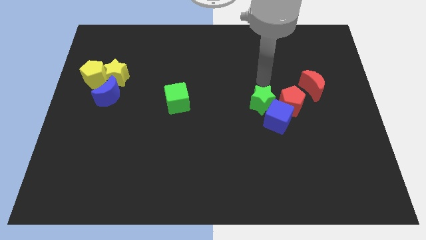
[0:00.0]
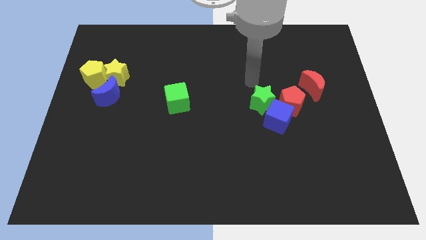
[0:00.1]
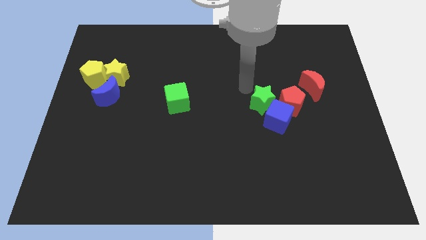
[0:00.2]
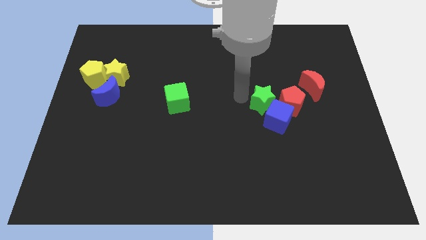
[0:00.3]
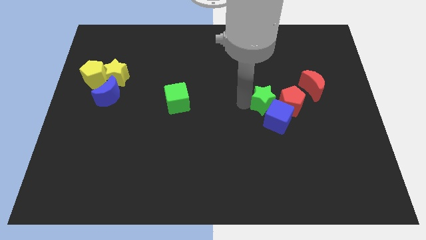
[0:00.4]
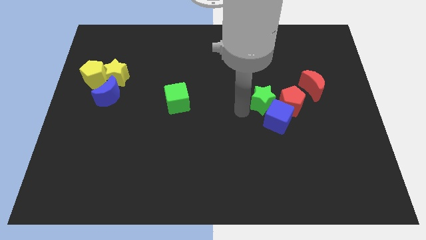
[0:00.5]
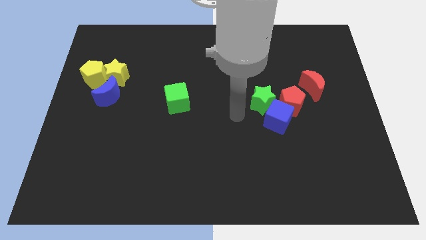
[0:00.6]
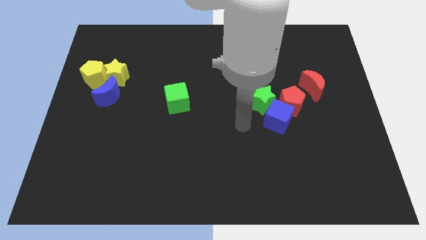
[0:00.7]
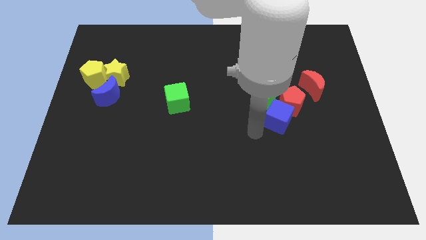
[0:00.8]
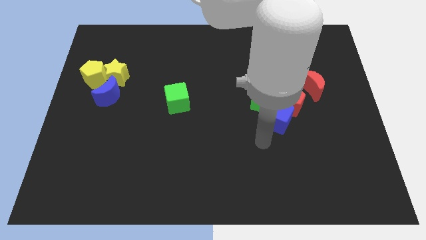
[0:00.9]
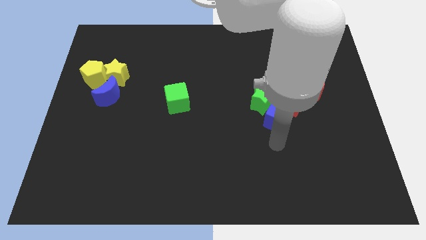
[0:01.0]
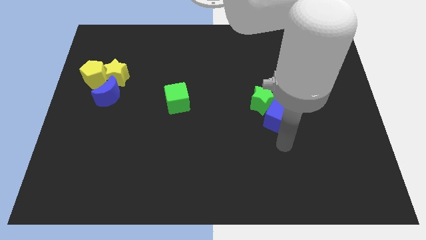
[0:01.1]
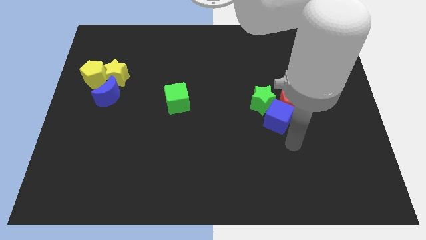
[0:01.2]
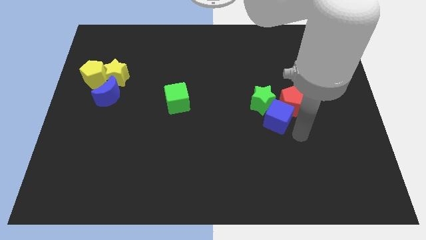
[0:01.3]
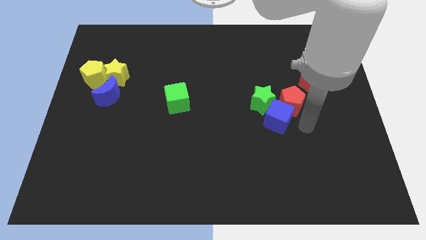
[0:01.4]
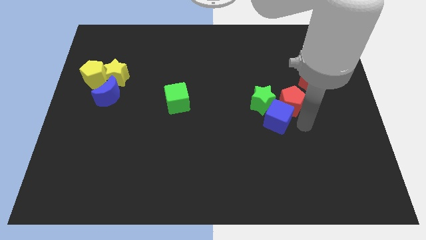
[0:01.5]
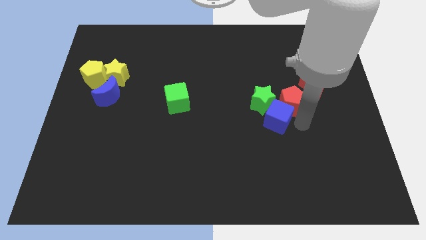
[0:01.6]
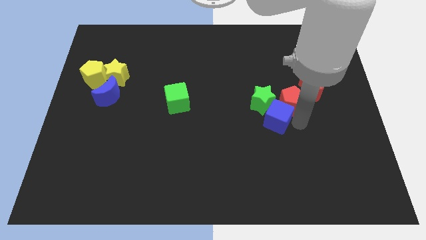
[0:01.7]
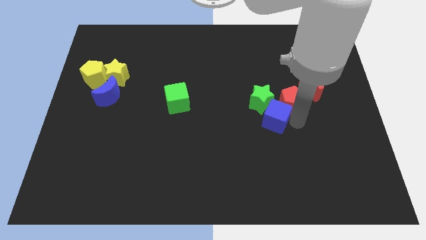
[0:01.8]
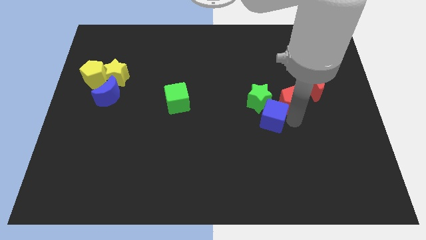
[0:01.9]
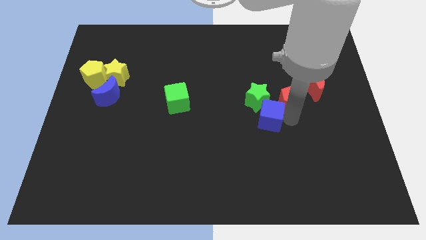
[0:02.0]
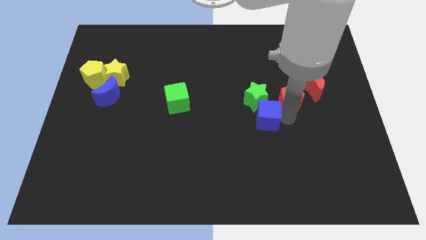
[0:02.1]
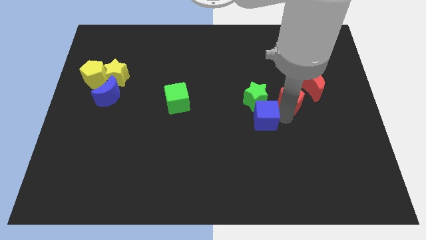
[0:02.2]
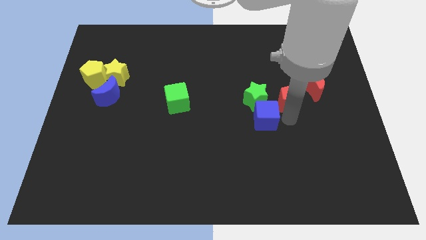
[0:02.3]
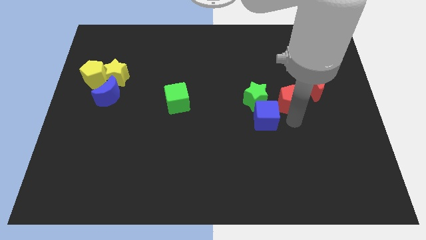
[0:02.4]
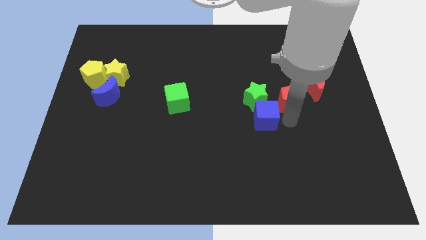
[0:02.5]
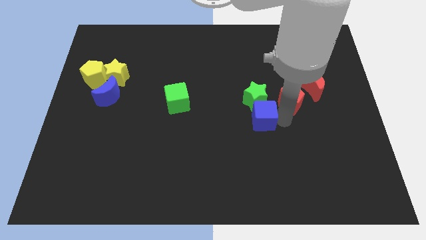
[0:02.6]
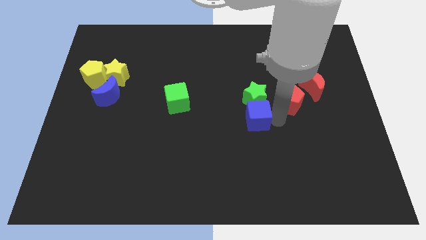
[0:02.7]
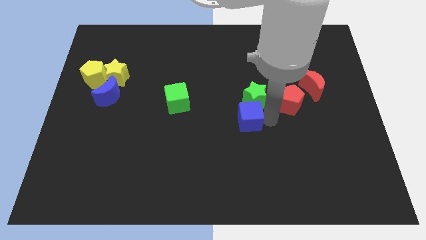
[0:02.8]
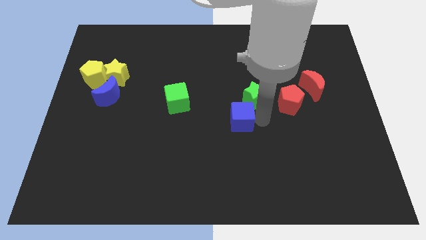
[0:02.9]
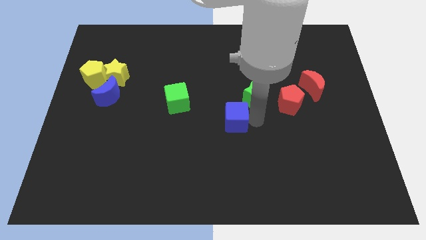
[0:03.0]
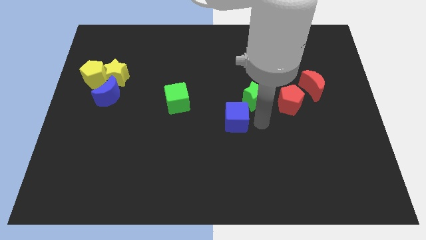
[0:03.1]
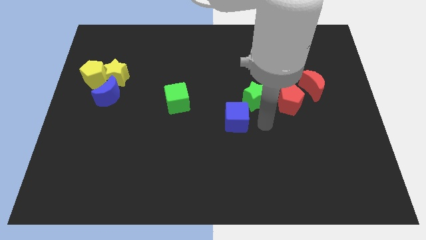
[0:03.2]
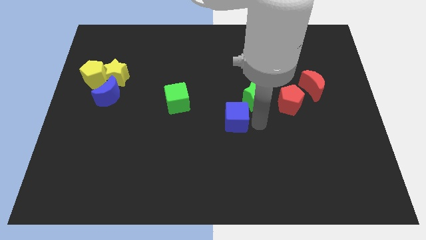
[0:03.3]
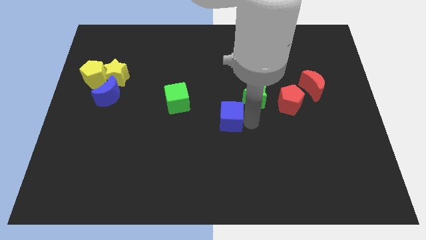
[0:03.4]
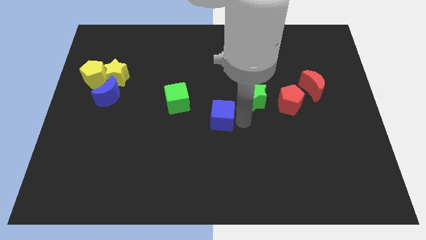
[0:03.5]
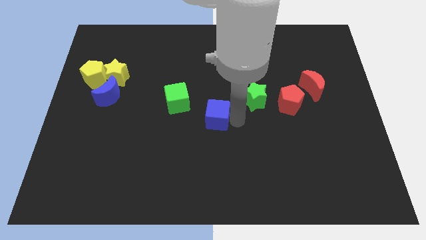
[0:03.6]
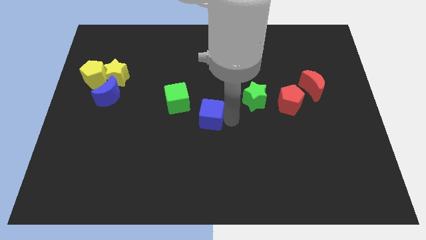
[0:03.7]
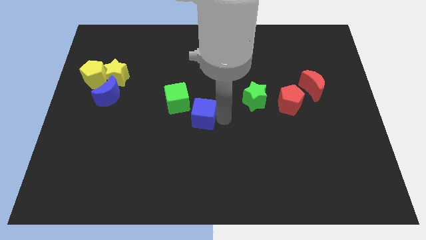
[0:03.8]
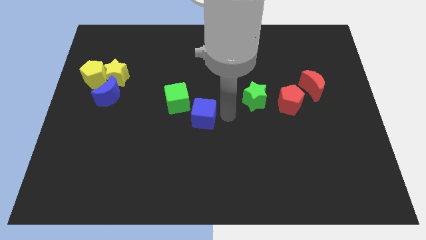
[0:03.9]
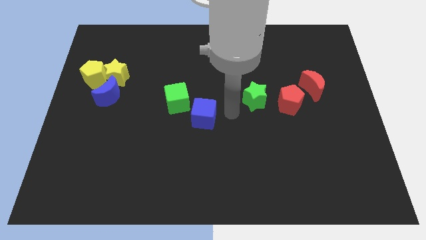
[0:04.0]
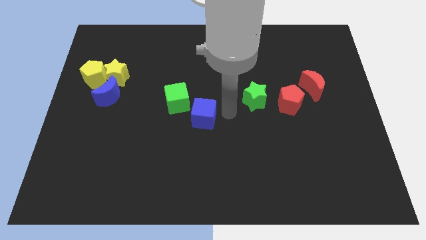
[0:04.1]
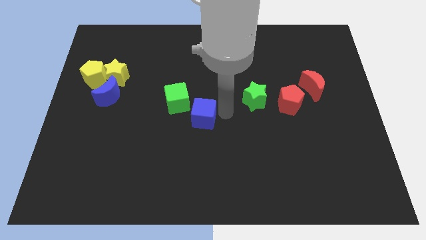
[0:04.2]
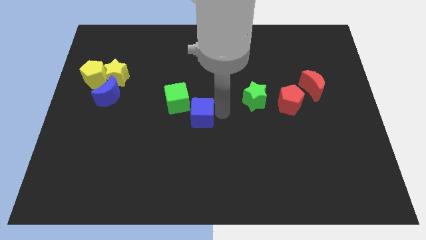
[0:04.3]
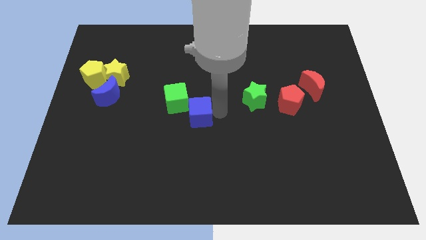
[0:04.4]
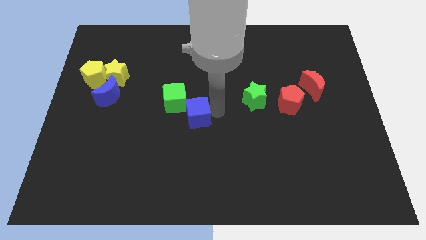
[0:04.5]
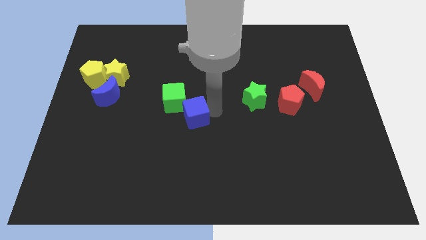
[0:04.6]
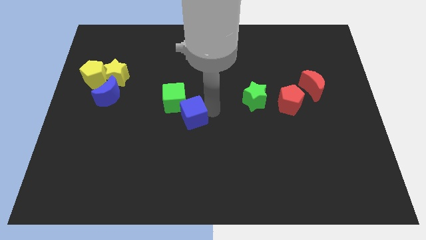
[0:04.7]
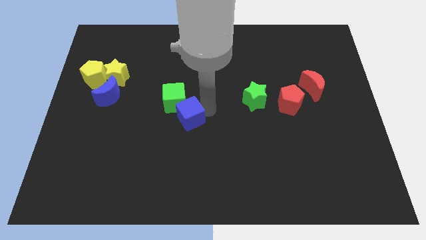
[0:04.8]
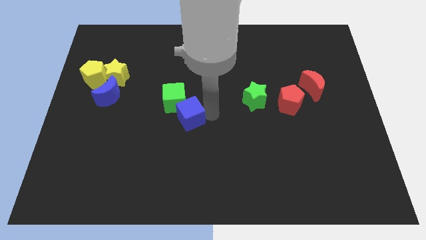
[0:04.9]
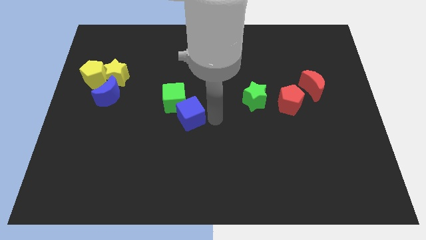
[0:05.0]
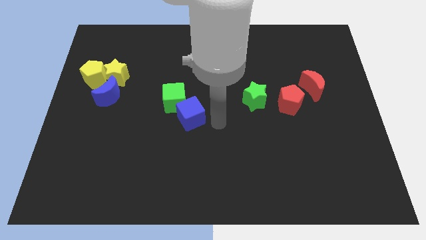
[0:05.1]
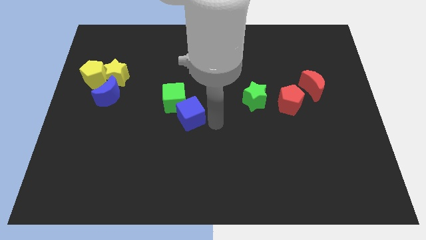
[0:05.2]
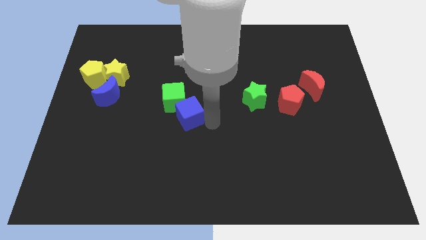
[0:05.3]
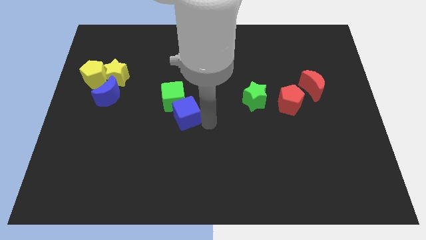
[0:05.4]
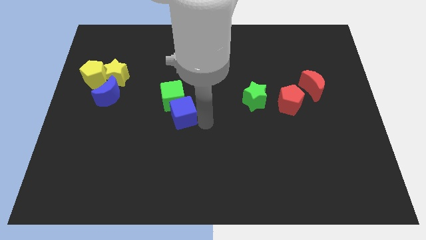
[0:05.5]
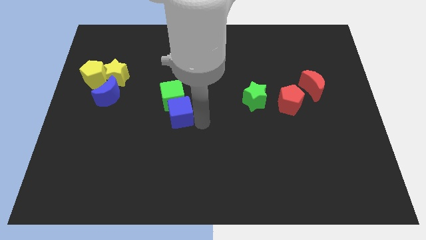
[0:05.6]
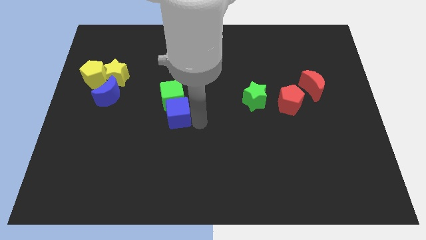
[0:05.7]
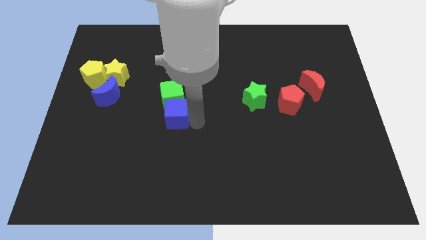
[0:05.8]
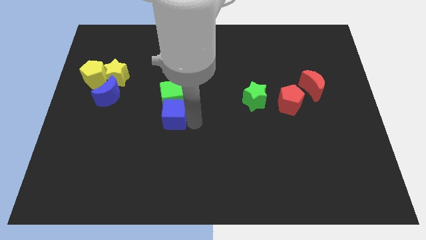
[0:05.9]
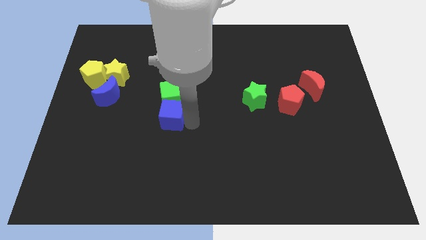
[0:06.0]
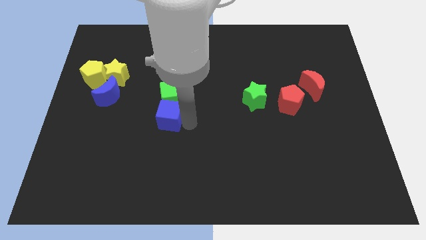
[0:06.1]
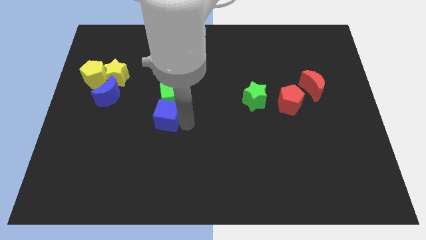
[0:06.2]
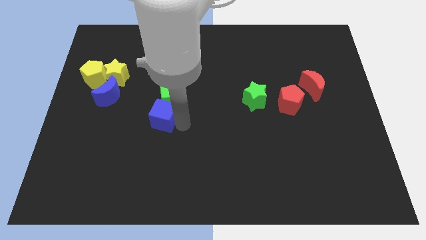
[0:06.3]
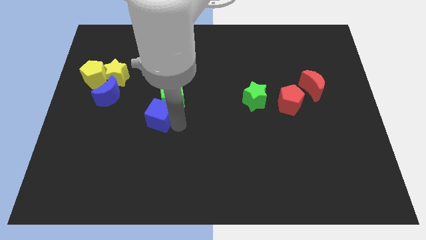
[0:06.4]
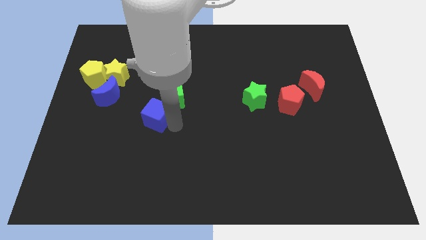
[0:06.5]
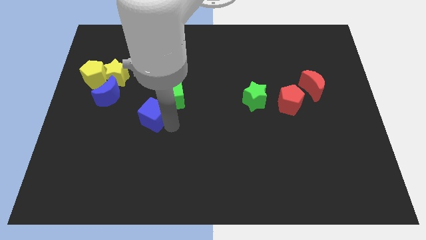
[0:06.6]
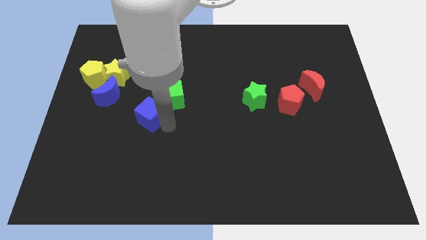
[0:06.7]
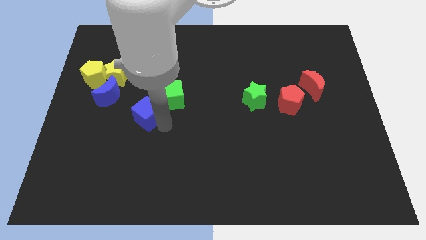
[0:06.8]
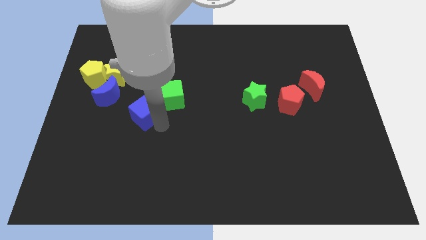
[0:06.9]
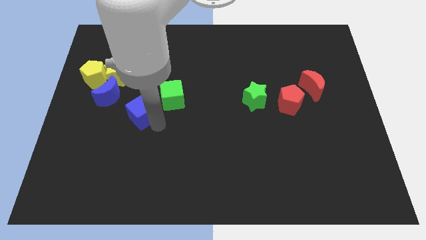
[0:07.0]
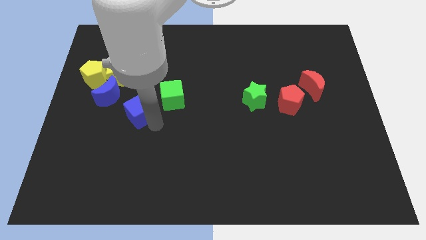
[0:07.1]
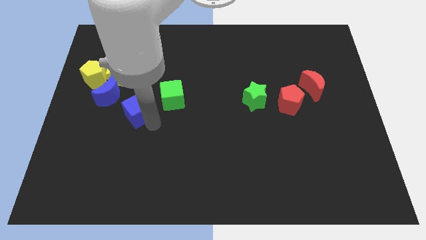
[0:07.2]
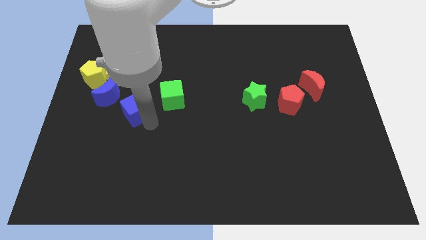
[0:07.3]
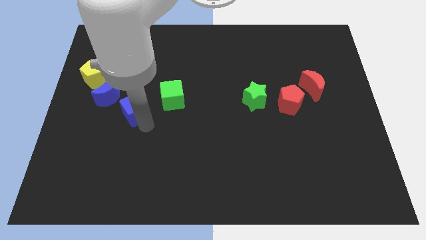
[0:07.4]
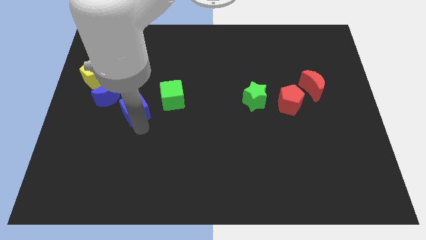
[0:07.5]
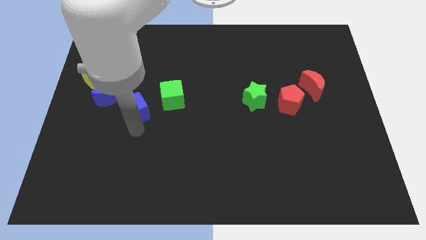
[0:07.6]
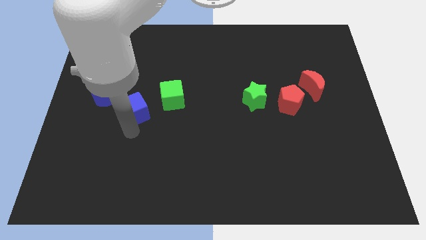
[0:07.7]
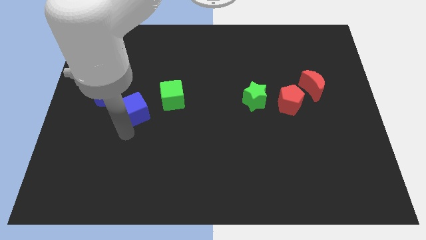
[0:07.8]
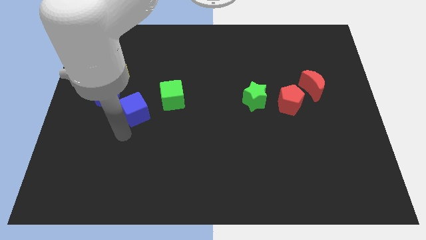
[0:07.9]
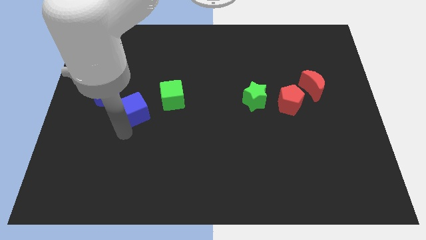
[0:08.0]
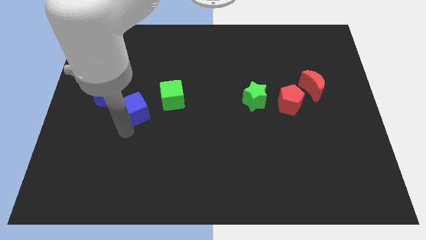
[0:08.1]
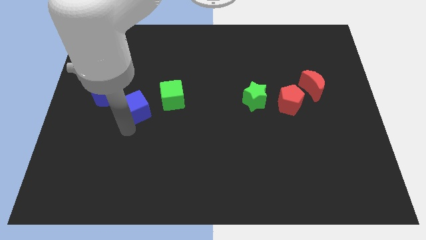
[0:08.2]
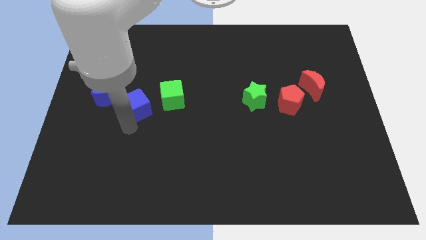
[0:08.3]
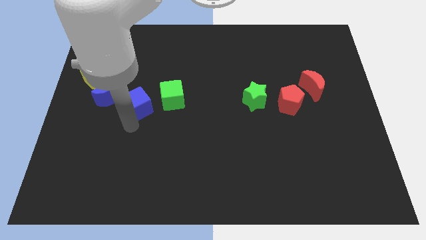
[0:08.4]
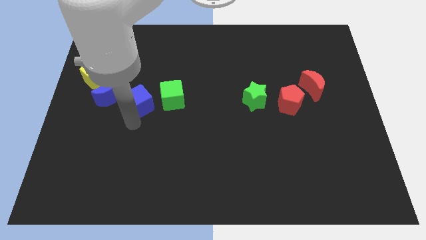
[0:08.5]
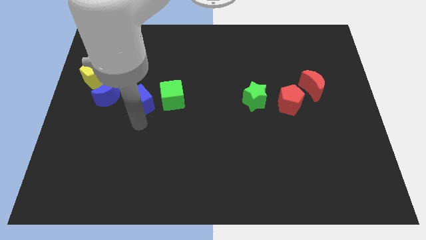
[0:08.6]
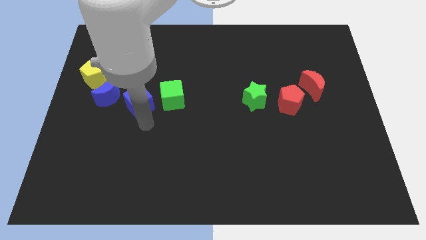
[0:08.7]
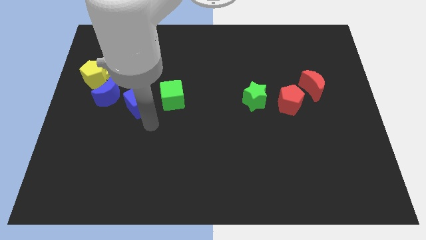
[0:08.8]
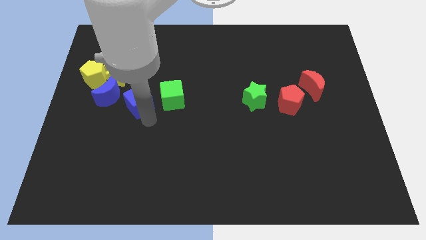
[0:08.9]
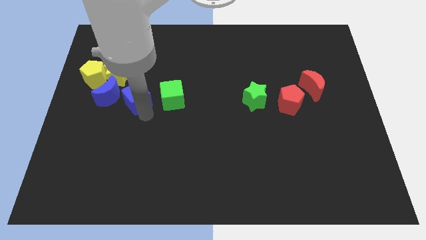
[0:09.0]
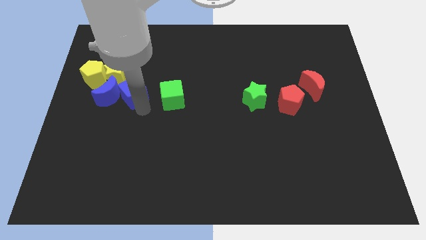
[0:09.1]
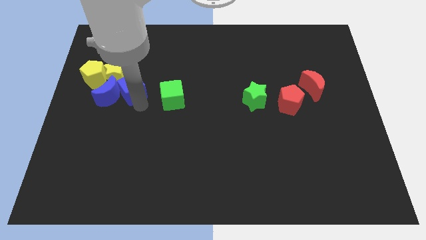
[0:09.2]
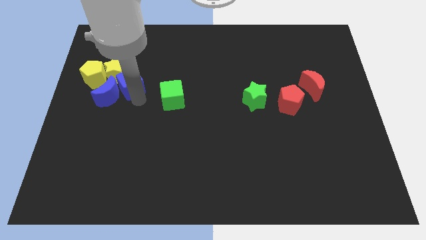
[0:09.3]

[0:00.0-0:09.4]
slide the blue cube to the yellow star
